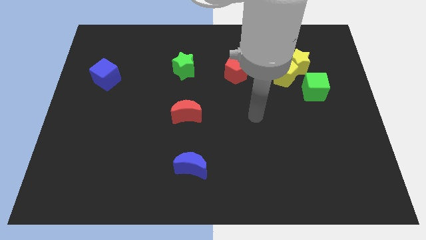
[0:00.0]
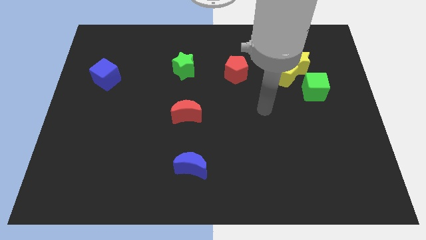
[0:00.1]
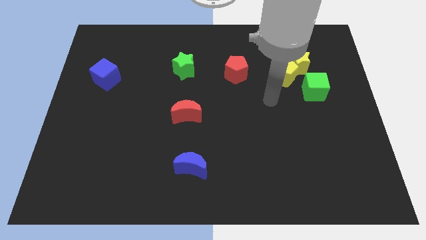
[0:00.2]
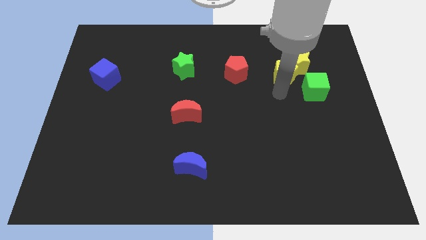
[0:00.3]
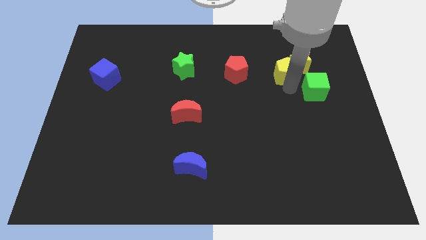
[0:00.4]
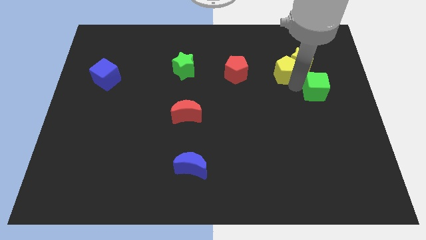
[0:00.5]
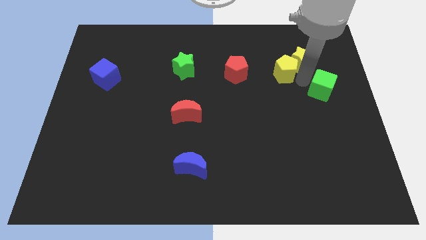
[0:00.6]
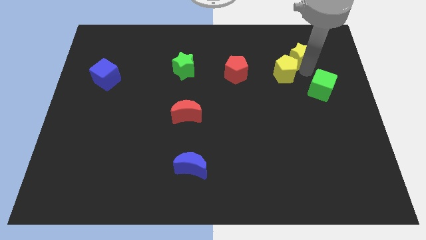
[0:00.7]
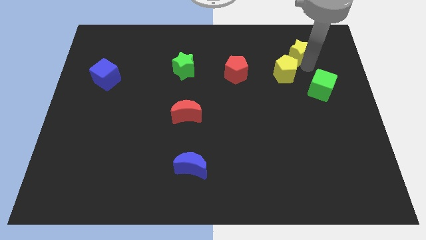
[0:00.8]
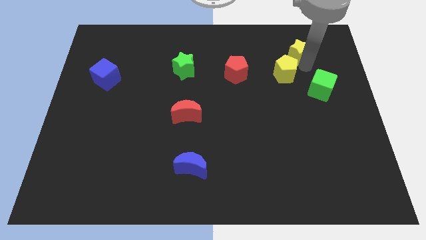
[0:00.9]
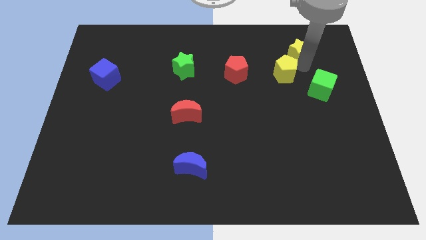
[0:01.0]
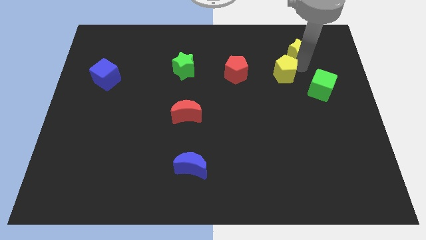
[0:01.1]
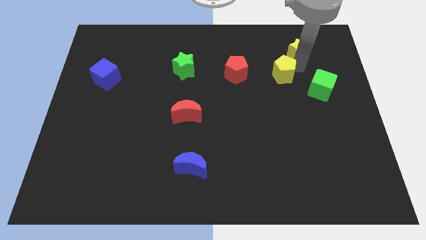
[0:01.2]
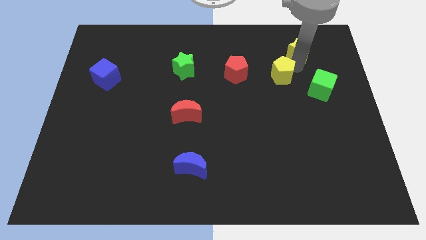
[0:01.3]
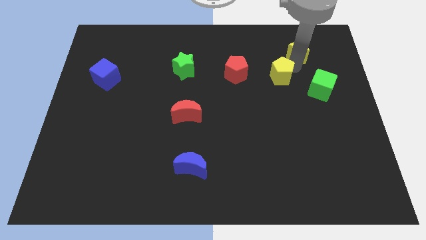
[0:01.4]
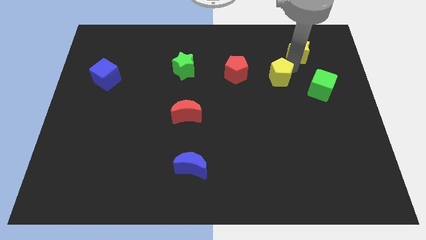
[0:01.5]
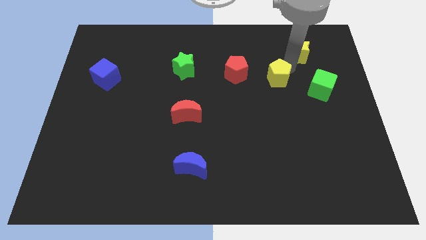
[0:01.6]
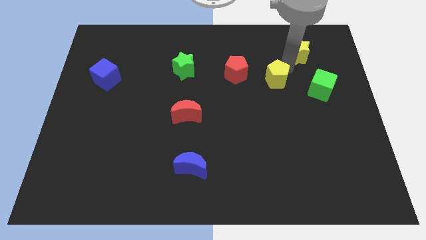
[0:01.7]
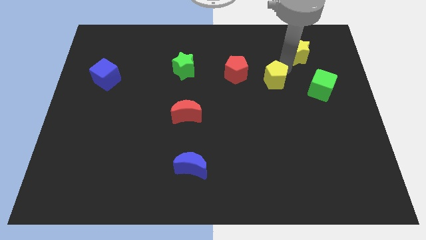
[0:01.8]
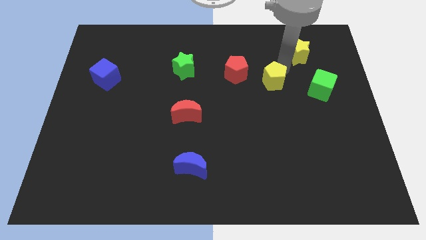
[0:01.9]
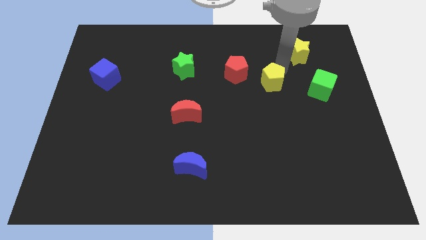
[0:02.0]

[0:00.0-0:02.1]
move the yellow pentagon away from the yellow star and green cube

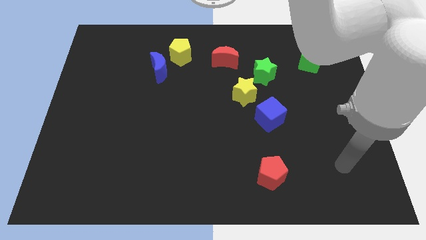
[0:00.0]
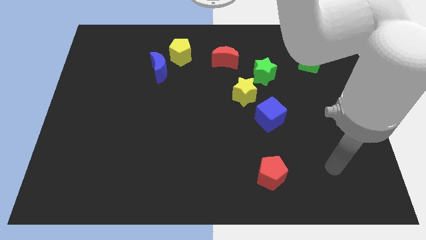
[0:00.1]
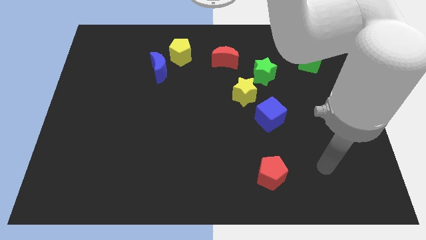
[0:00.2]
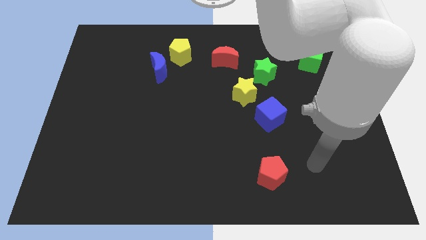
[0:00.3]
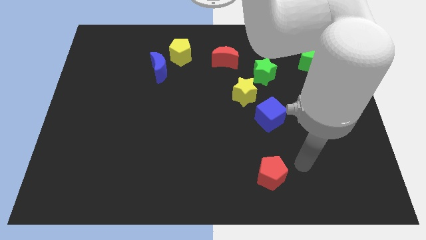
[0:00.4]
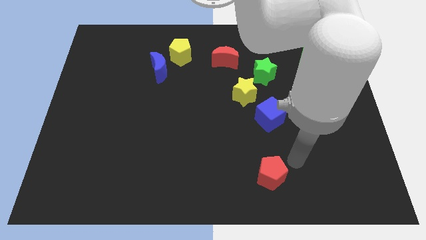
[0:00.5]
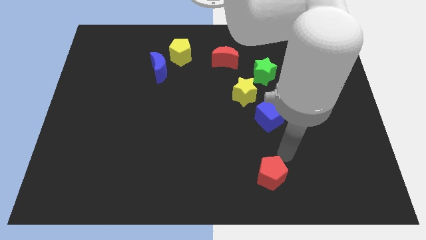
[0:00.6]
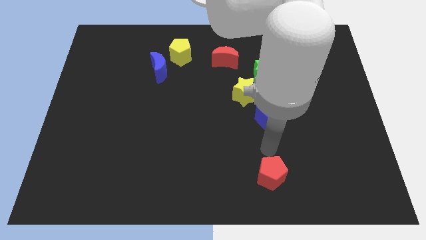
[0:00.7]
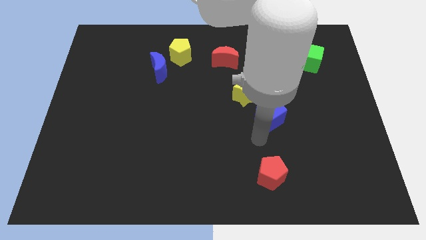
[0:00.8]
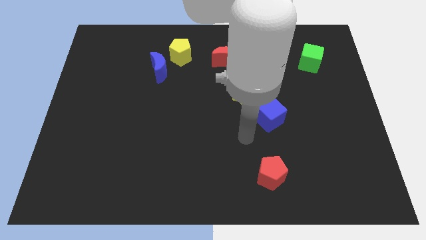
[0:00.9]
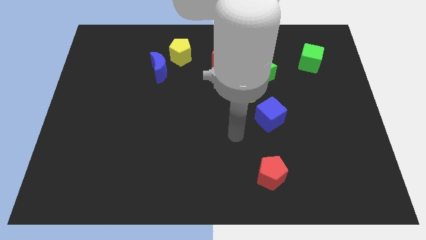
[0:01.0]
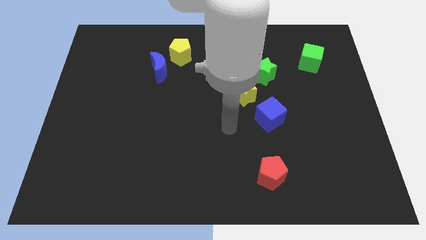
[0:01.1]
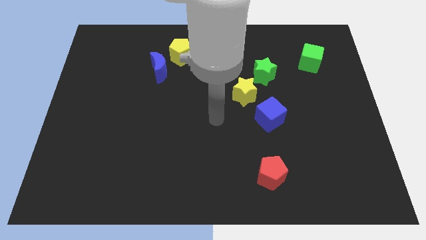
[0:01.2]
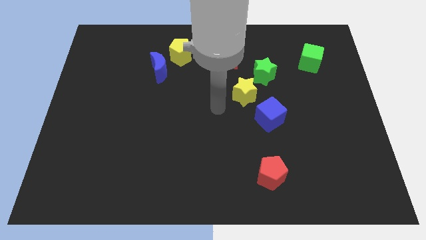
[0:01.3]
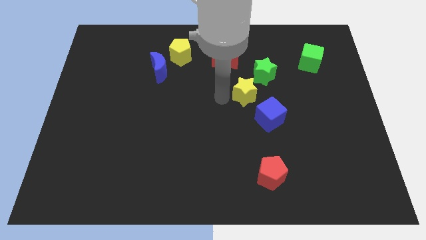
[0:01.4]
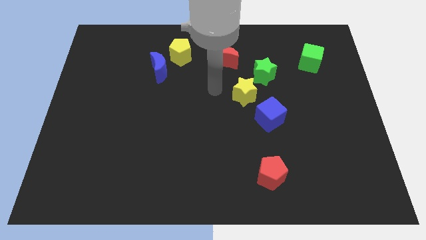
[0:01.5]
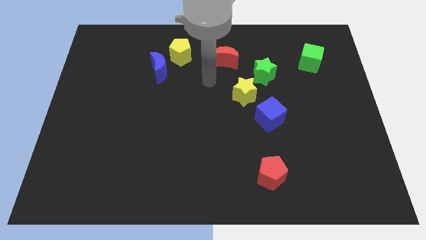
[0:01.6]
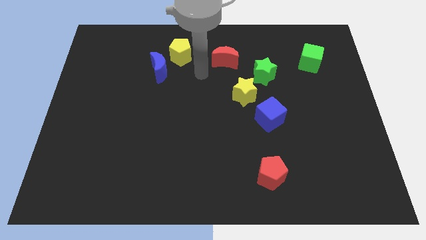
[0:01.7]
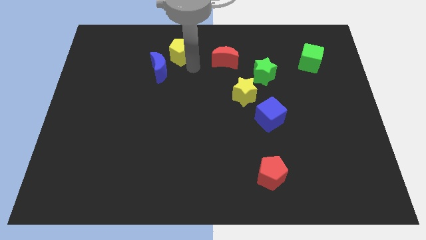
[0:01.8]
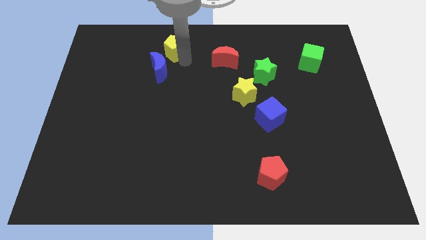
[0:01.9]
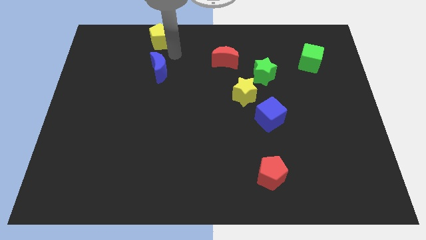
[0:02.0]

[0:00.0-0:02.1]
separate the blue moon from the yellow pentagon

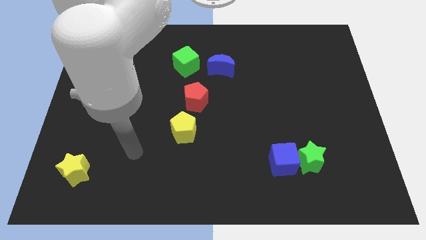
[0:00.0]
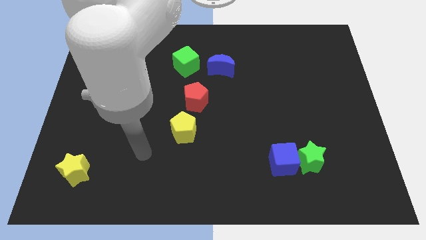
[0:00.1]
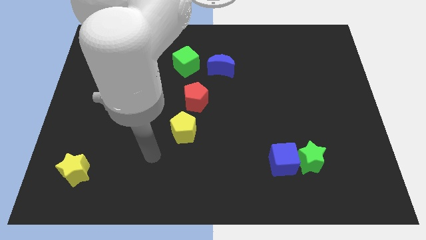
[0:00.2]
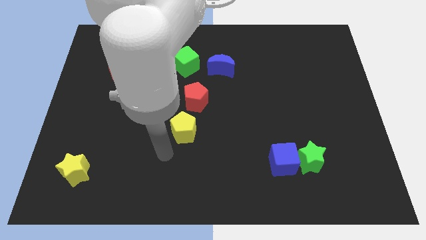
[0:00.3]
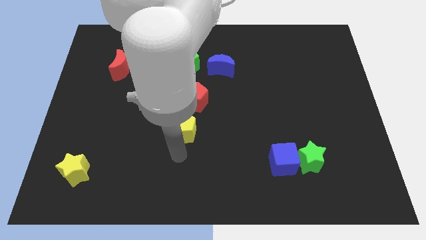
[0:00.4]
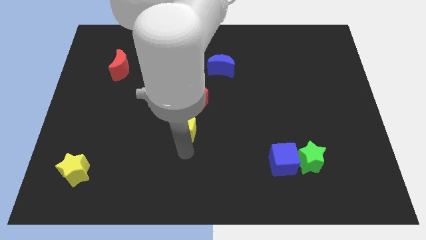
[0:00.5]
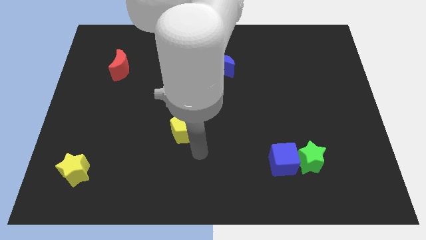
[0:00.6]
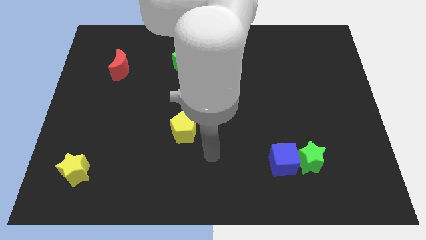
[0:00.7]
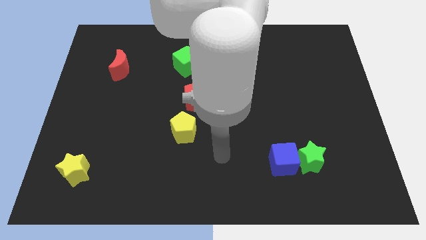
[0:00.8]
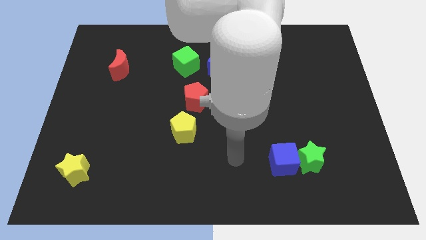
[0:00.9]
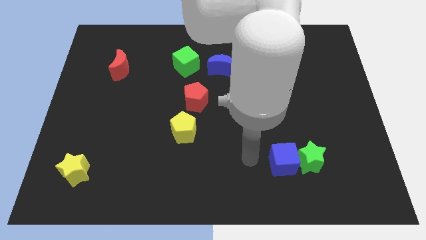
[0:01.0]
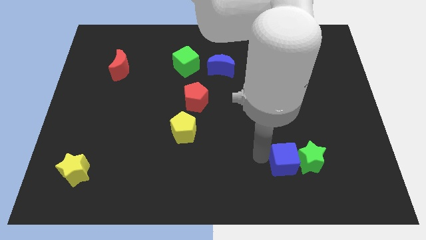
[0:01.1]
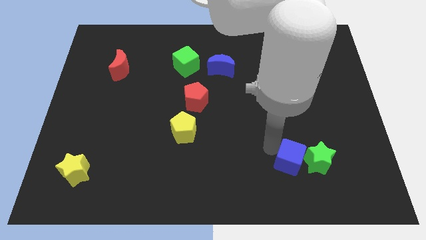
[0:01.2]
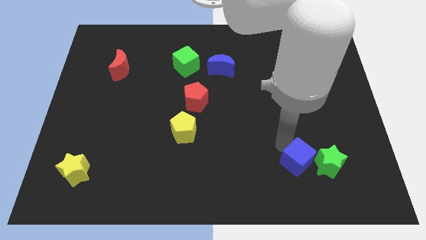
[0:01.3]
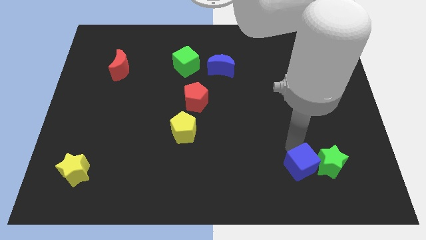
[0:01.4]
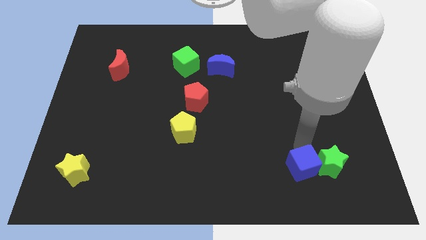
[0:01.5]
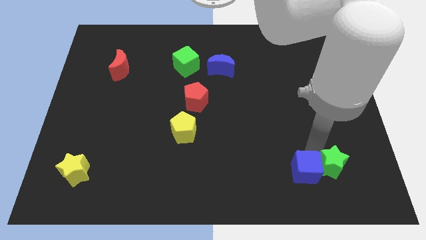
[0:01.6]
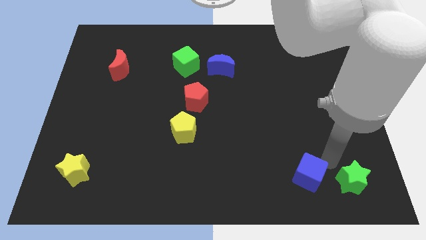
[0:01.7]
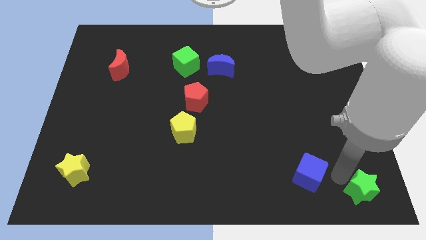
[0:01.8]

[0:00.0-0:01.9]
pull the blue cube apart from the green star

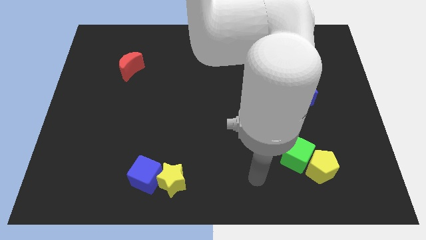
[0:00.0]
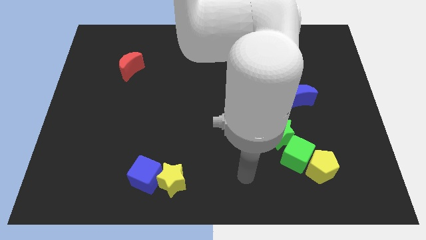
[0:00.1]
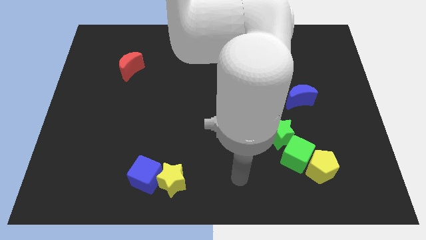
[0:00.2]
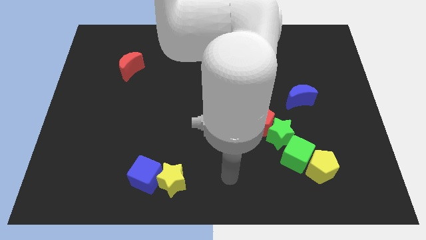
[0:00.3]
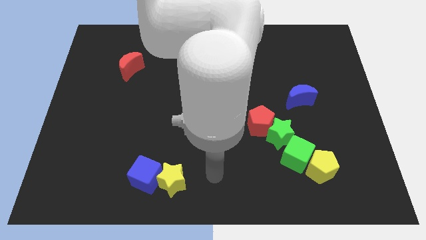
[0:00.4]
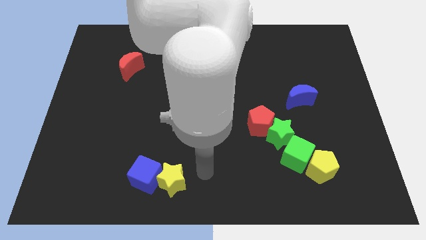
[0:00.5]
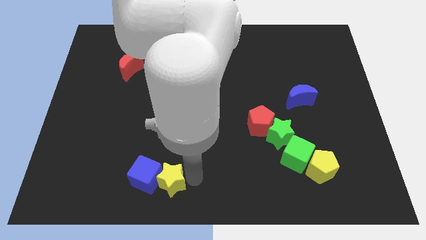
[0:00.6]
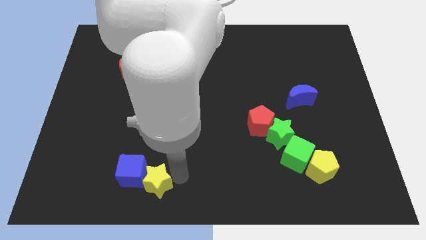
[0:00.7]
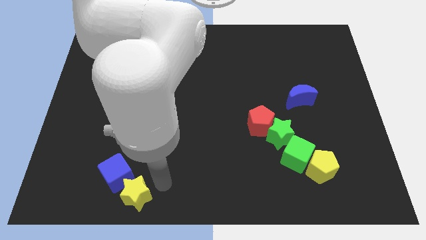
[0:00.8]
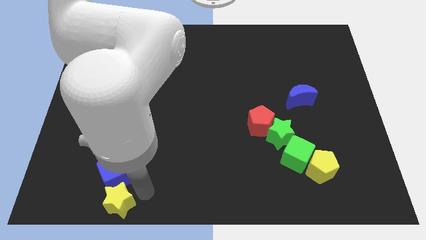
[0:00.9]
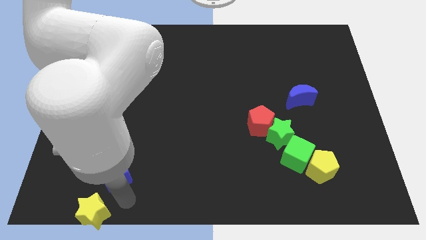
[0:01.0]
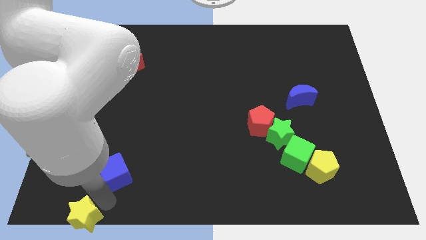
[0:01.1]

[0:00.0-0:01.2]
separate the blue cube from the yellow star

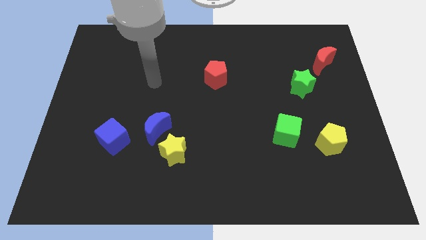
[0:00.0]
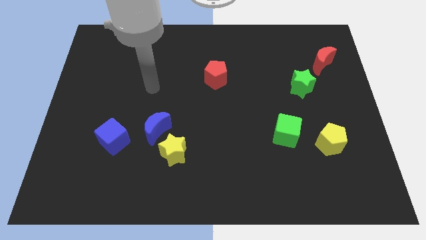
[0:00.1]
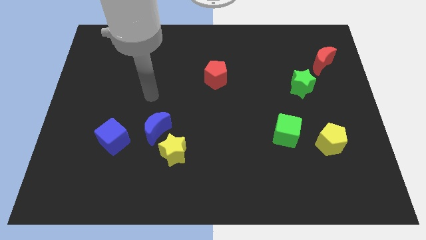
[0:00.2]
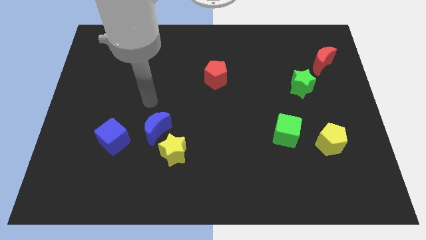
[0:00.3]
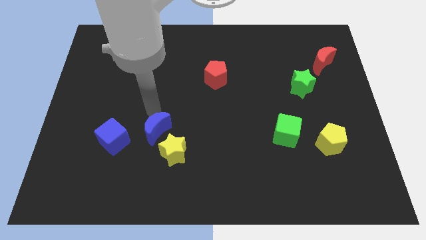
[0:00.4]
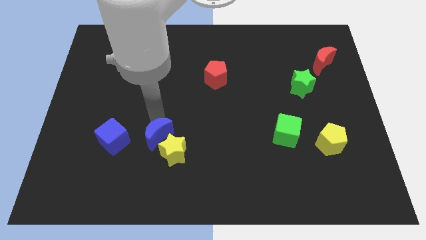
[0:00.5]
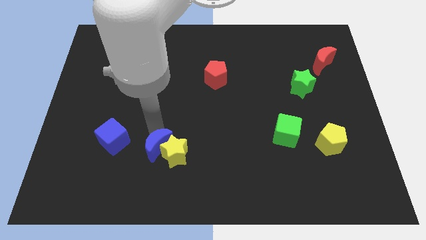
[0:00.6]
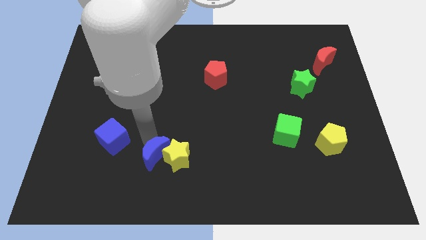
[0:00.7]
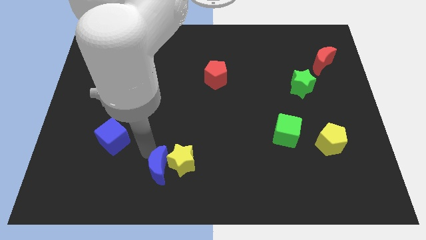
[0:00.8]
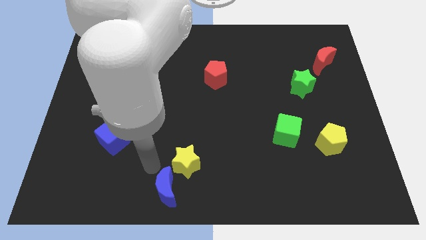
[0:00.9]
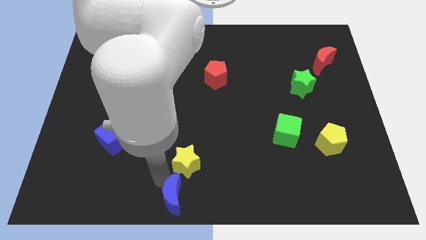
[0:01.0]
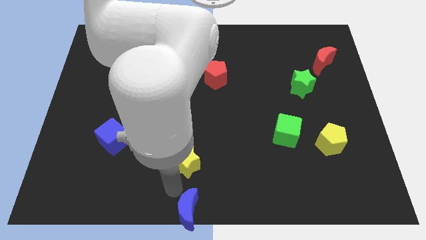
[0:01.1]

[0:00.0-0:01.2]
move the yellow star away from the blue moon

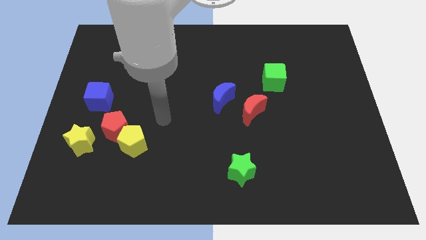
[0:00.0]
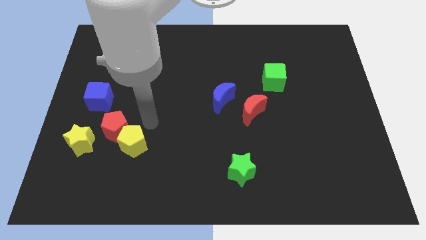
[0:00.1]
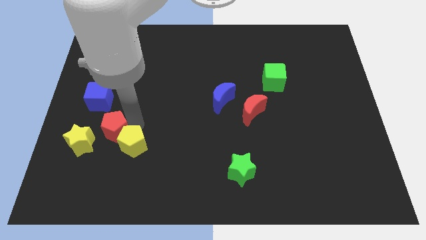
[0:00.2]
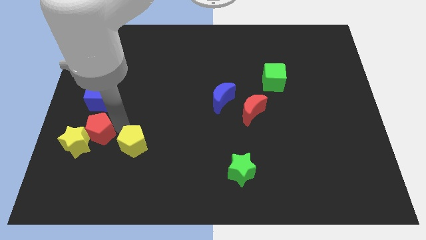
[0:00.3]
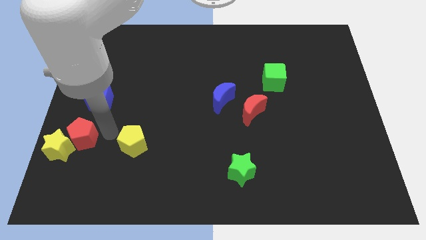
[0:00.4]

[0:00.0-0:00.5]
pull the yellow pentagon apart from the red pentagon

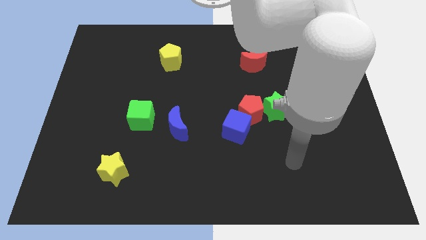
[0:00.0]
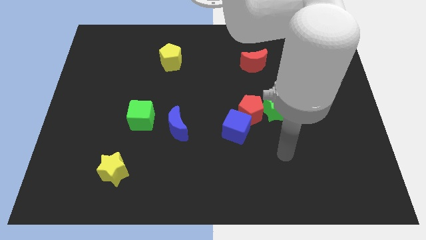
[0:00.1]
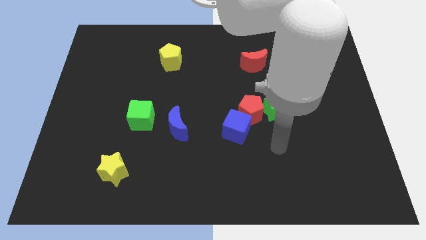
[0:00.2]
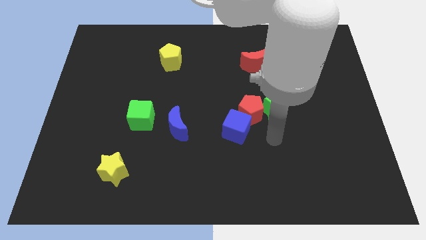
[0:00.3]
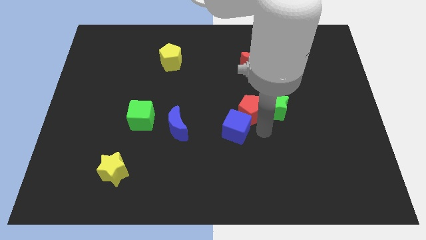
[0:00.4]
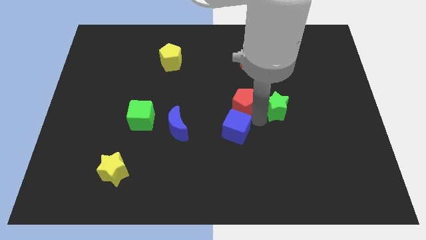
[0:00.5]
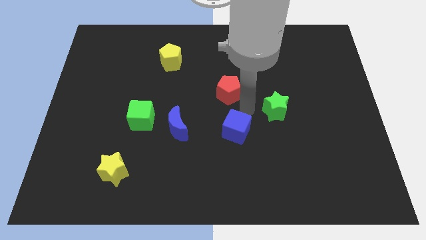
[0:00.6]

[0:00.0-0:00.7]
move the blue cube away from the red pentagon
